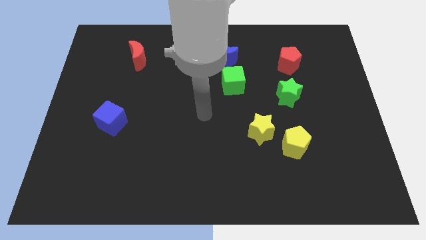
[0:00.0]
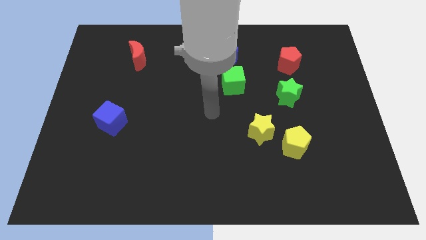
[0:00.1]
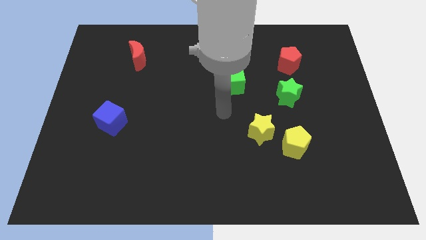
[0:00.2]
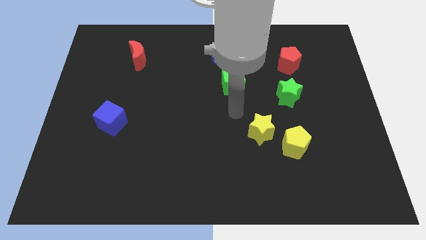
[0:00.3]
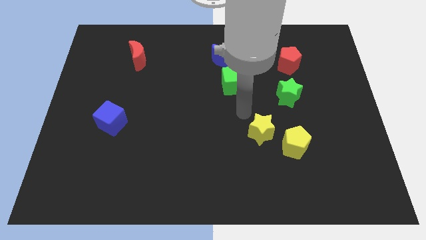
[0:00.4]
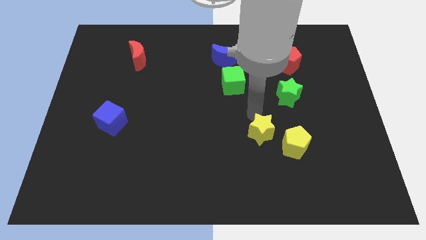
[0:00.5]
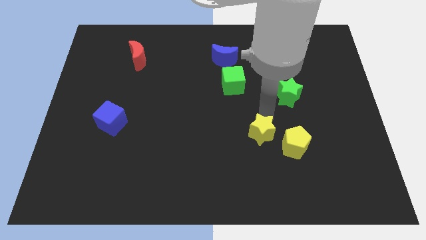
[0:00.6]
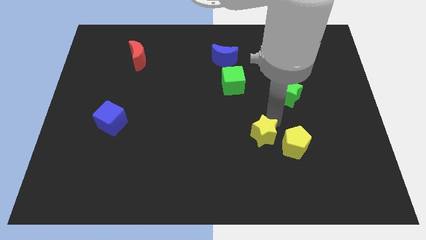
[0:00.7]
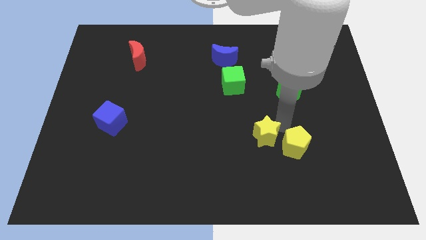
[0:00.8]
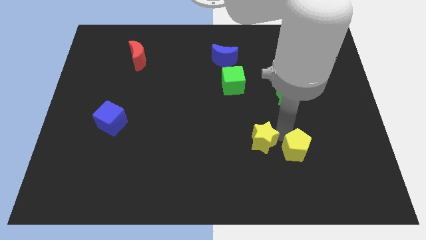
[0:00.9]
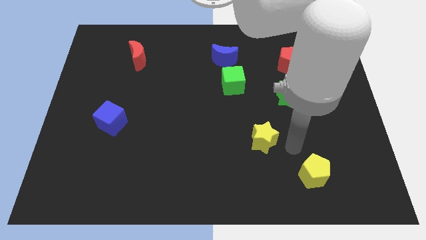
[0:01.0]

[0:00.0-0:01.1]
pull the yellow star apart from the yellow pentagon

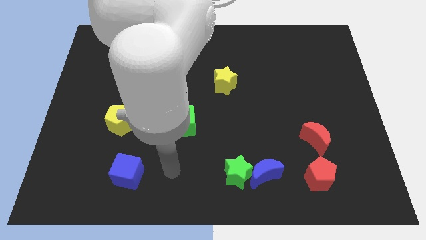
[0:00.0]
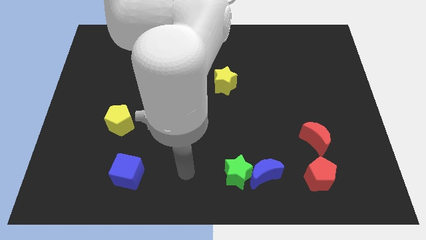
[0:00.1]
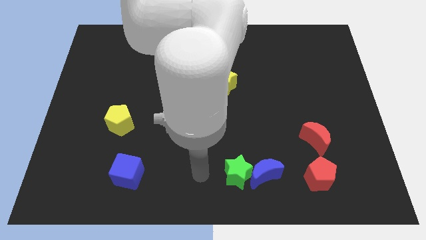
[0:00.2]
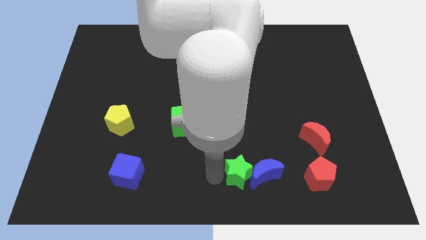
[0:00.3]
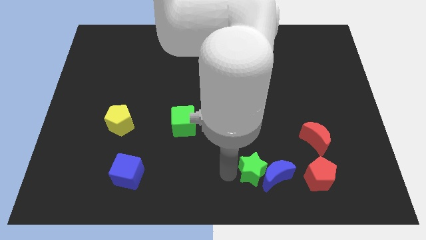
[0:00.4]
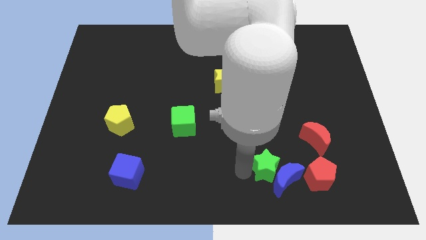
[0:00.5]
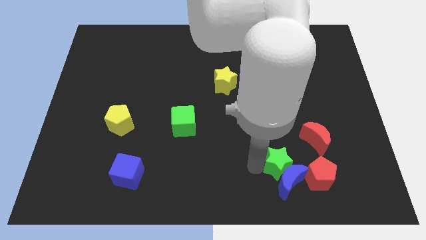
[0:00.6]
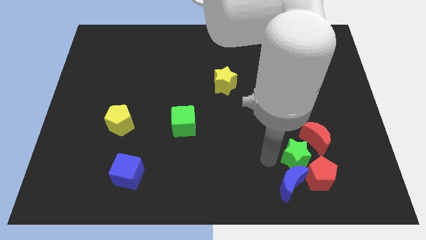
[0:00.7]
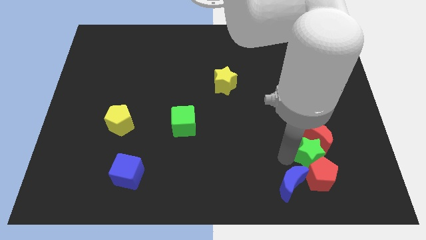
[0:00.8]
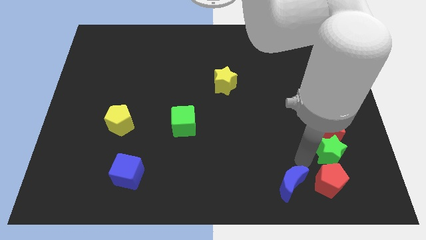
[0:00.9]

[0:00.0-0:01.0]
separate the blue moon from the green star

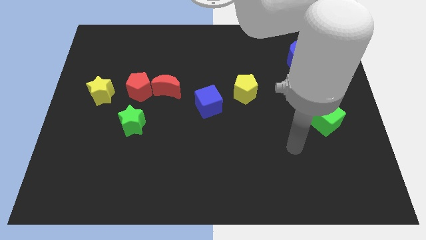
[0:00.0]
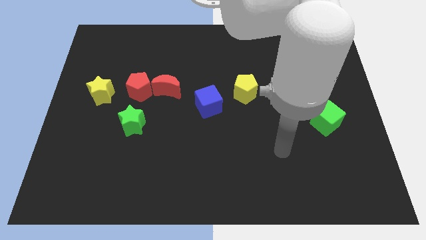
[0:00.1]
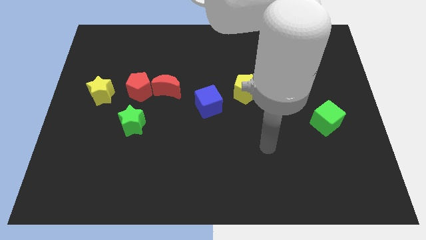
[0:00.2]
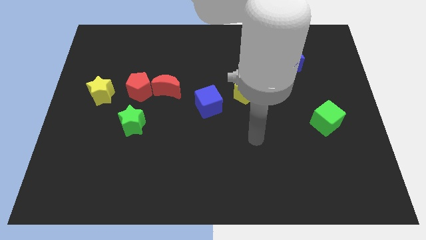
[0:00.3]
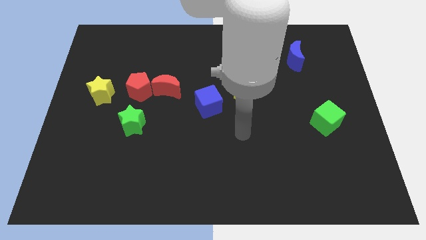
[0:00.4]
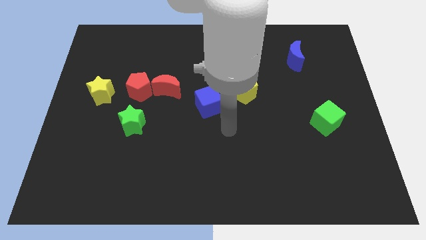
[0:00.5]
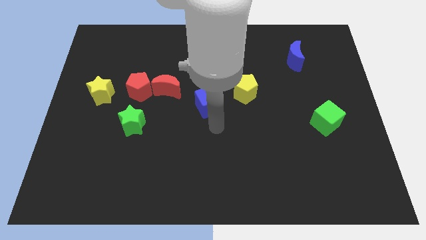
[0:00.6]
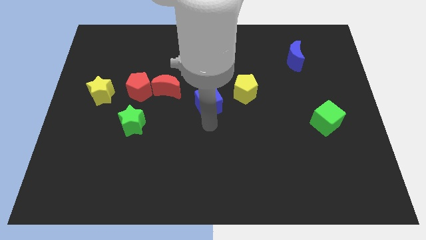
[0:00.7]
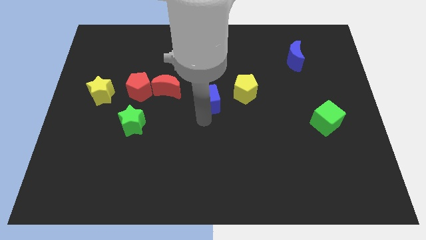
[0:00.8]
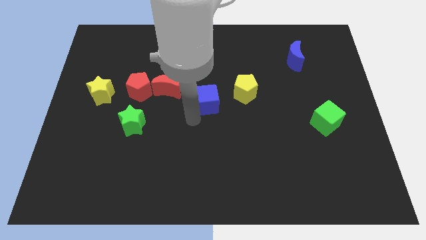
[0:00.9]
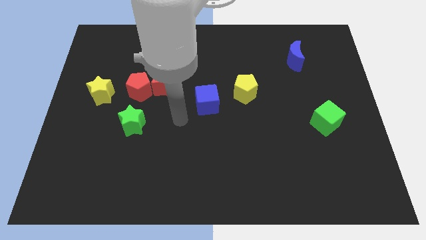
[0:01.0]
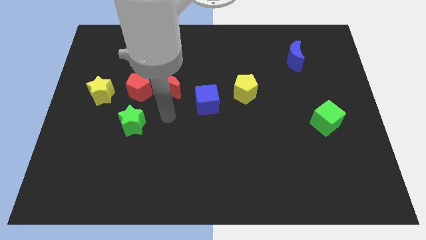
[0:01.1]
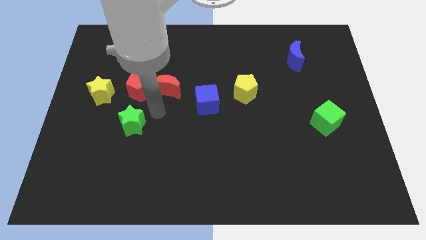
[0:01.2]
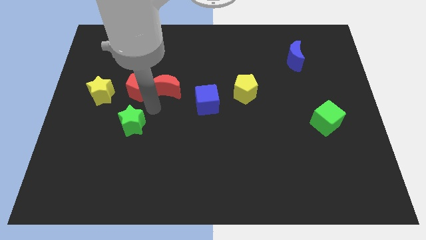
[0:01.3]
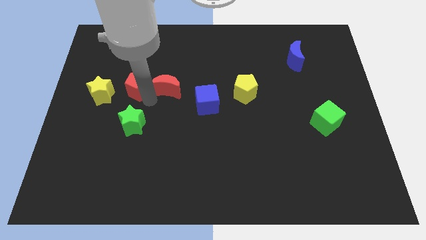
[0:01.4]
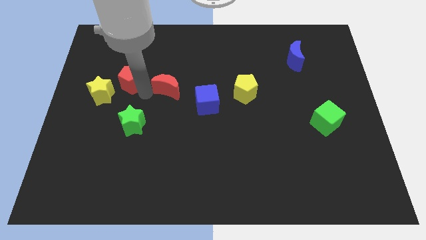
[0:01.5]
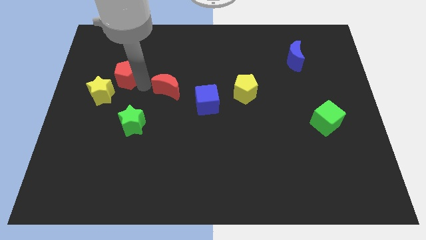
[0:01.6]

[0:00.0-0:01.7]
separate the red moon from the red pentagon

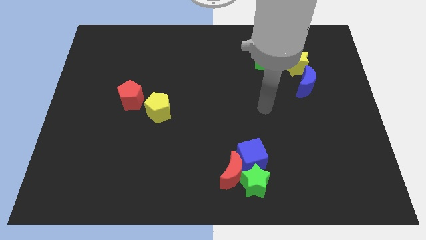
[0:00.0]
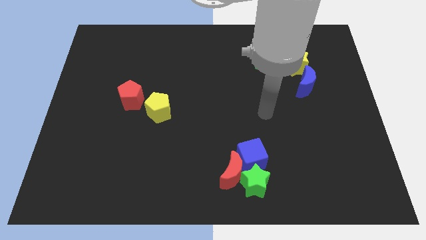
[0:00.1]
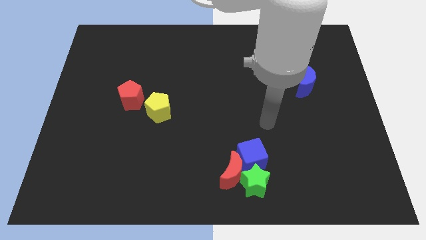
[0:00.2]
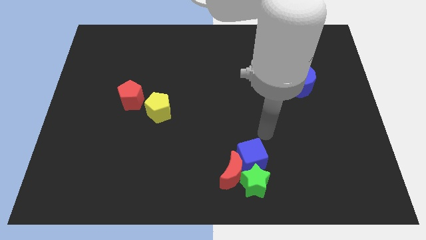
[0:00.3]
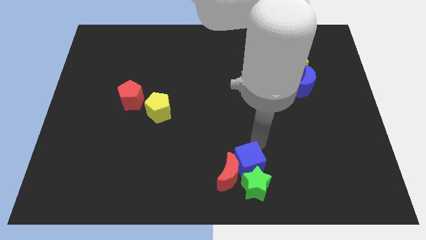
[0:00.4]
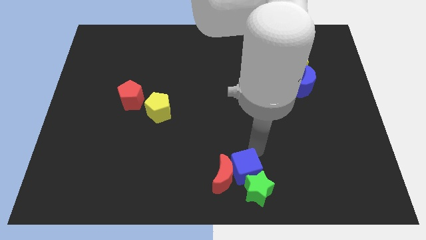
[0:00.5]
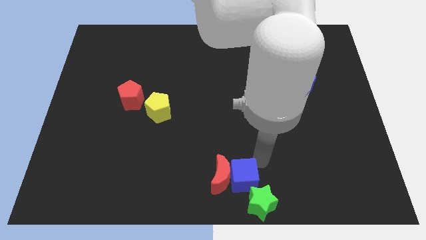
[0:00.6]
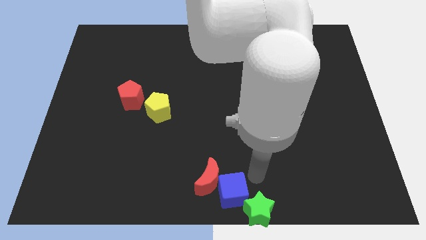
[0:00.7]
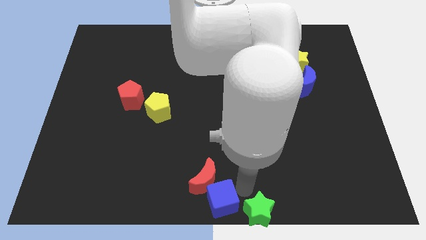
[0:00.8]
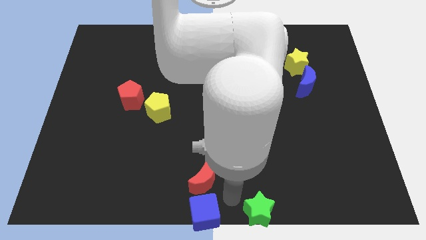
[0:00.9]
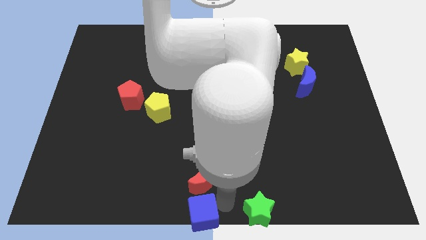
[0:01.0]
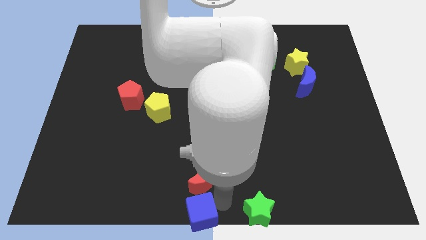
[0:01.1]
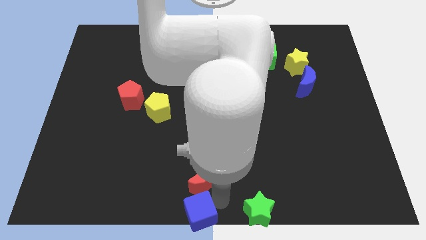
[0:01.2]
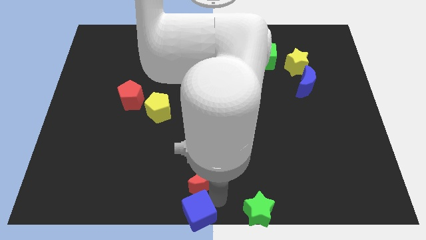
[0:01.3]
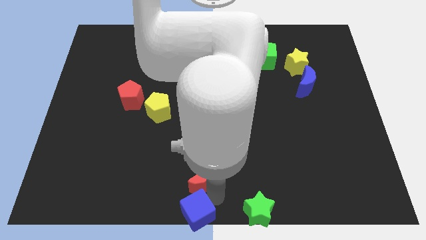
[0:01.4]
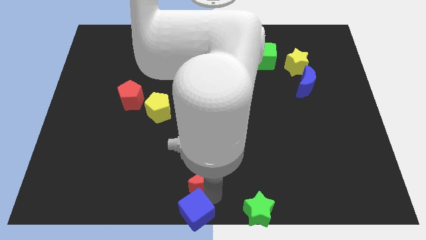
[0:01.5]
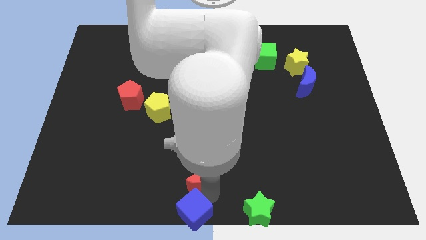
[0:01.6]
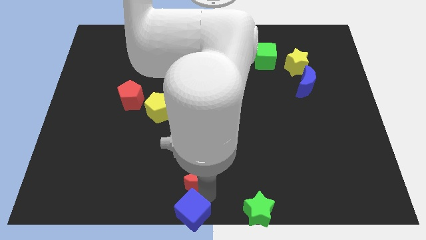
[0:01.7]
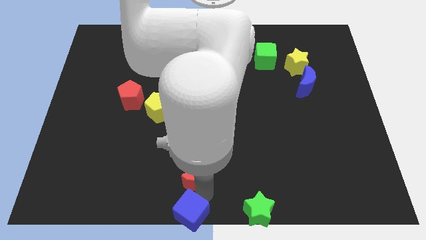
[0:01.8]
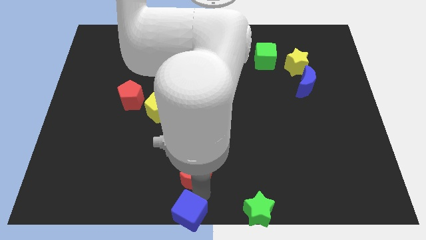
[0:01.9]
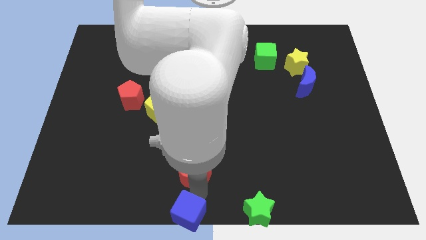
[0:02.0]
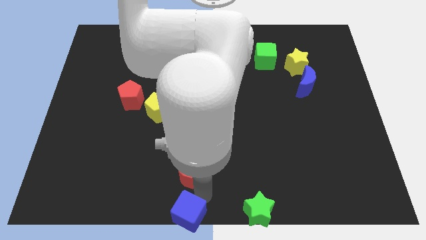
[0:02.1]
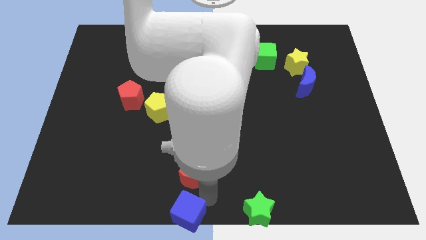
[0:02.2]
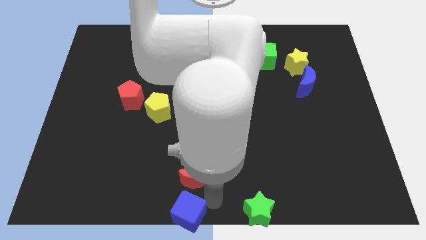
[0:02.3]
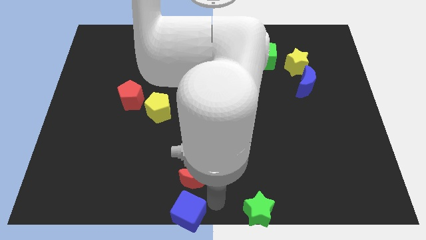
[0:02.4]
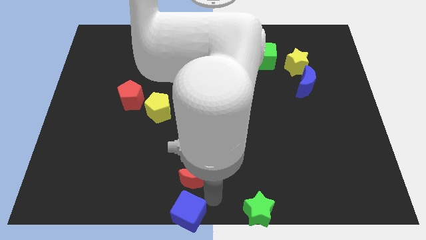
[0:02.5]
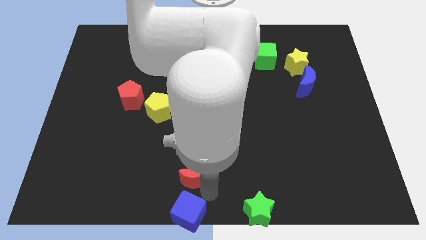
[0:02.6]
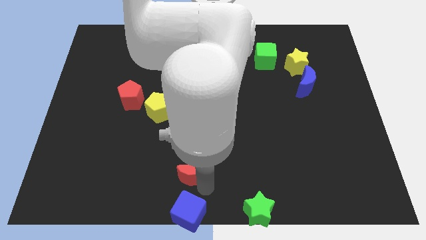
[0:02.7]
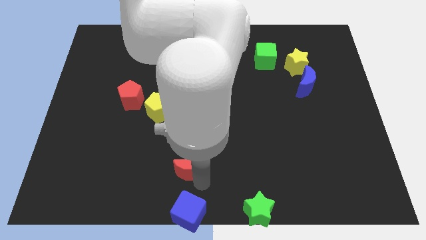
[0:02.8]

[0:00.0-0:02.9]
separate the red moon from the green star and blue cube

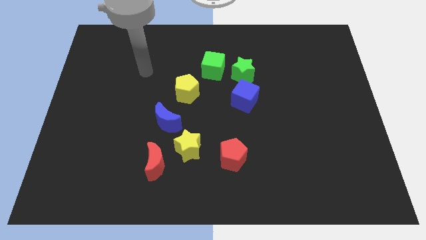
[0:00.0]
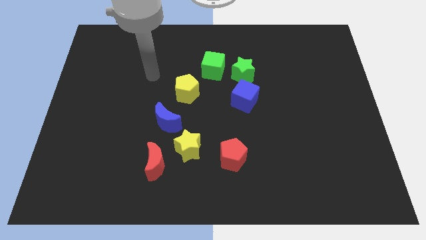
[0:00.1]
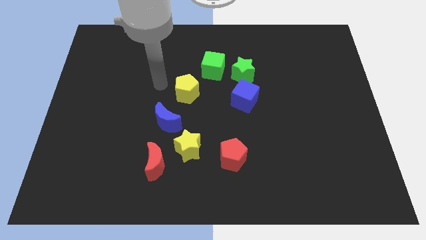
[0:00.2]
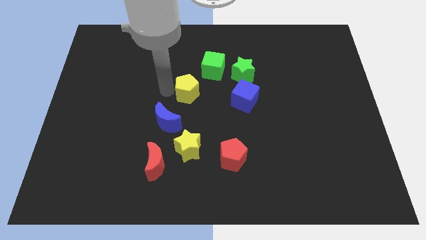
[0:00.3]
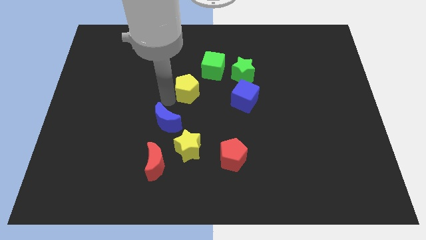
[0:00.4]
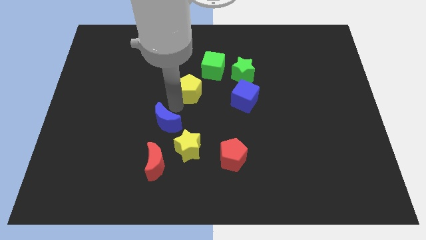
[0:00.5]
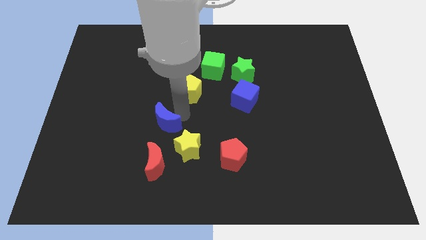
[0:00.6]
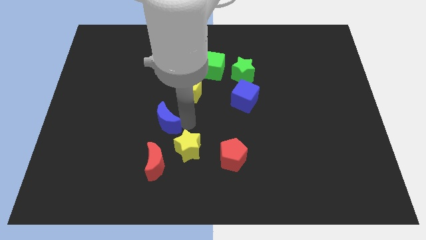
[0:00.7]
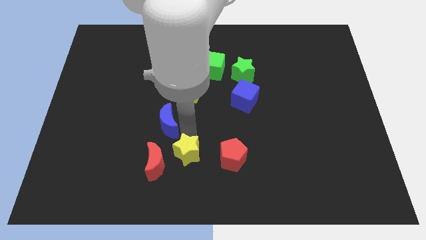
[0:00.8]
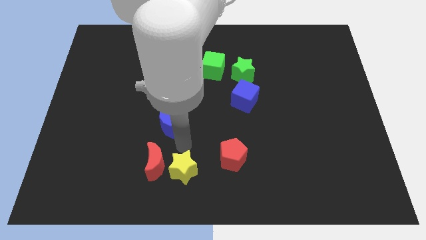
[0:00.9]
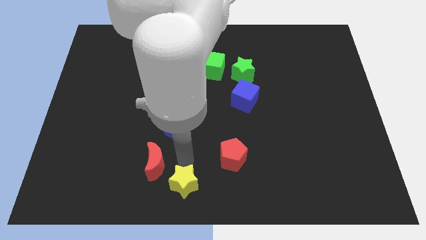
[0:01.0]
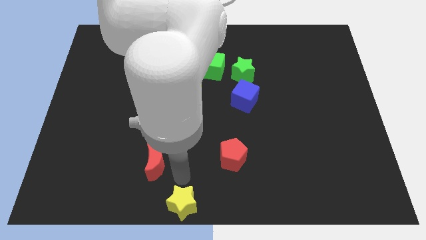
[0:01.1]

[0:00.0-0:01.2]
pull the red moon apart from the yellow star

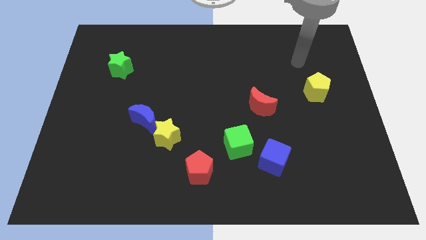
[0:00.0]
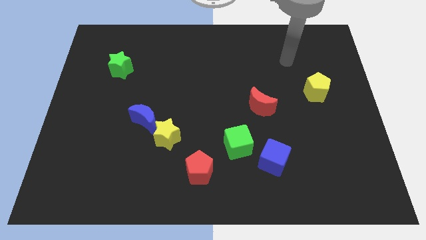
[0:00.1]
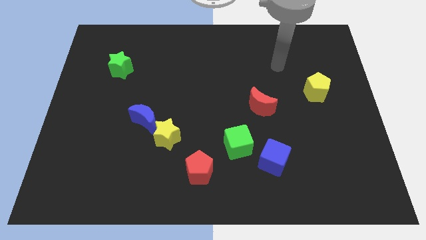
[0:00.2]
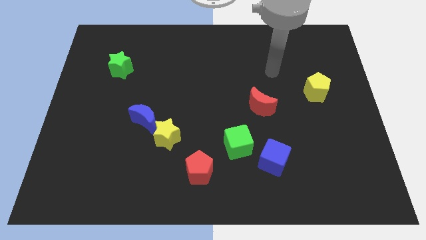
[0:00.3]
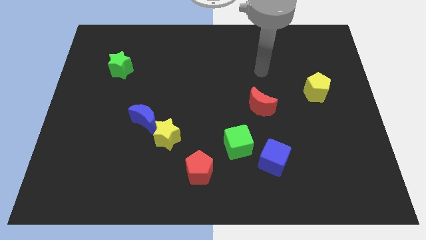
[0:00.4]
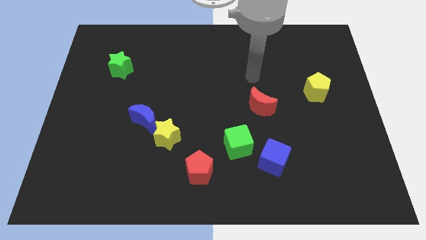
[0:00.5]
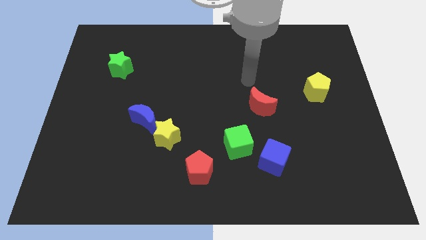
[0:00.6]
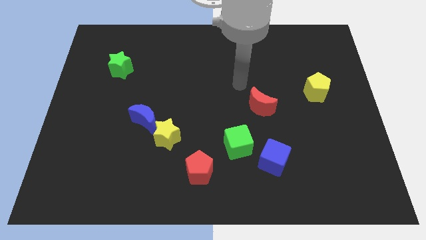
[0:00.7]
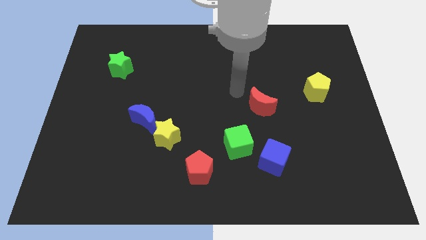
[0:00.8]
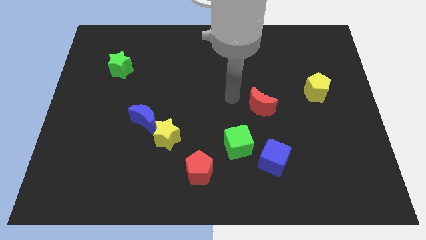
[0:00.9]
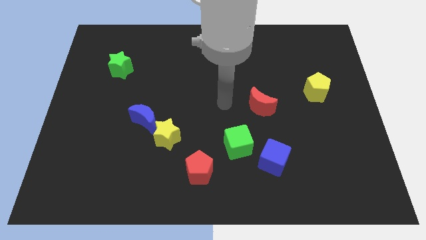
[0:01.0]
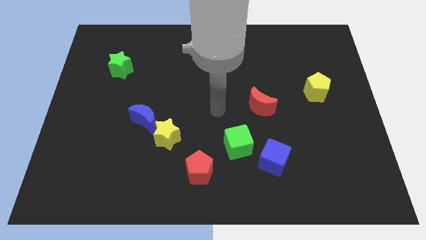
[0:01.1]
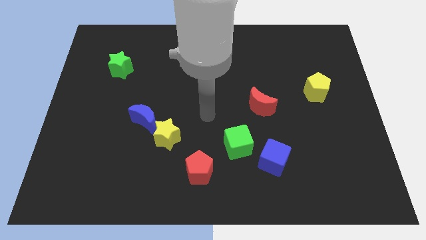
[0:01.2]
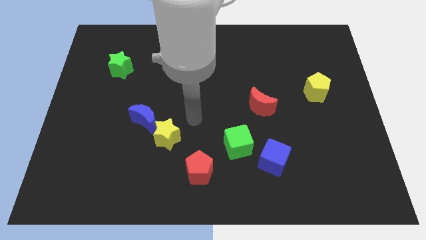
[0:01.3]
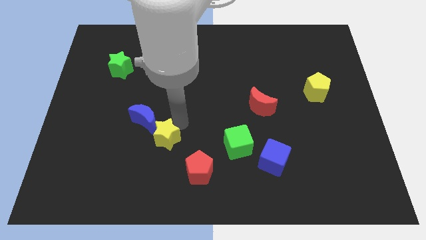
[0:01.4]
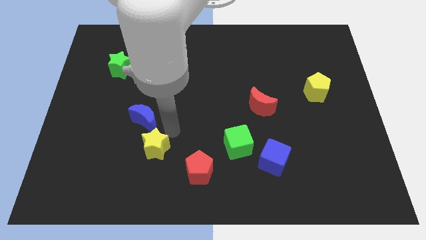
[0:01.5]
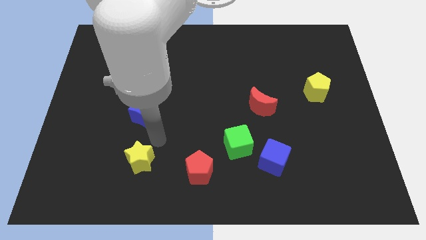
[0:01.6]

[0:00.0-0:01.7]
move the blue moon away from the yellow star
